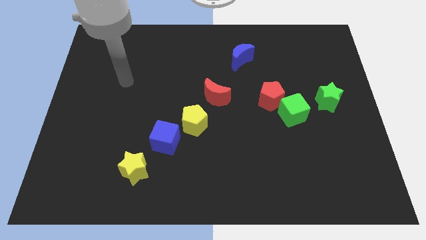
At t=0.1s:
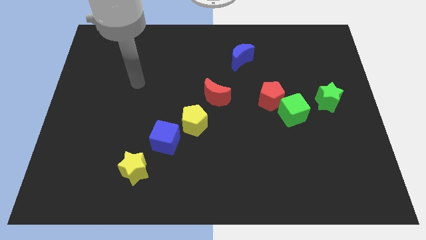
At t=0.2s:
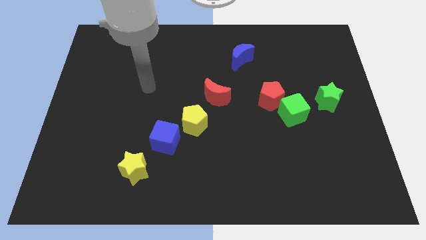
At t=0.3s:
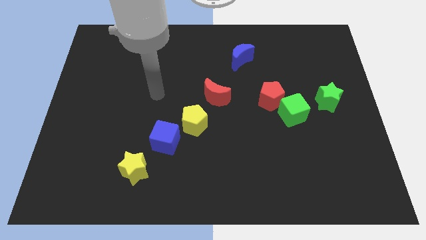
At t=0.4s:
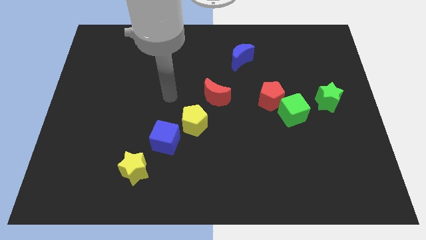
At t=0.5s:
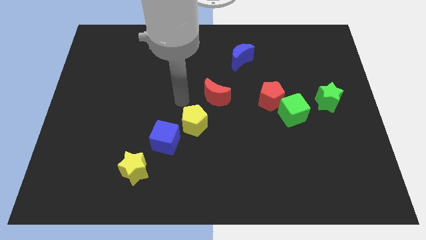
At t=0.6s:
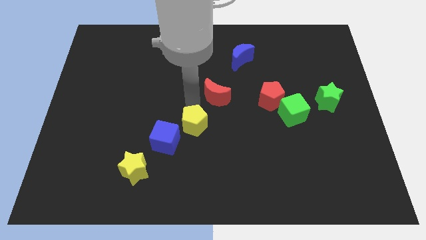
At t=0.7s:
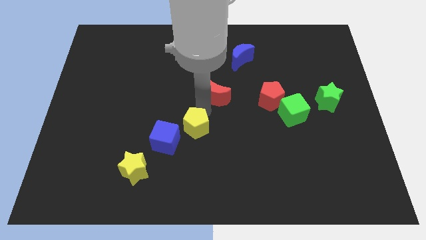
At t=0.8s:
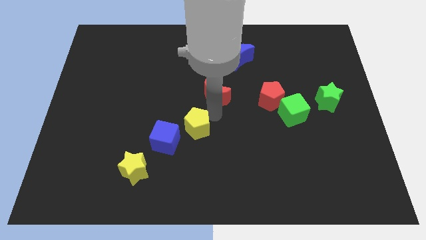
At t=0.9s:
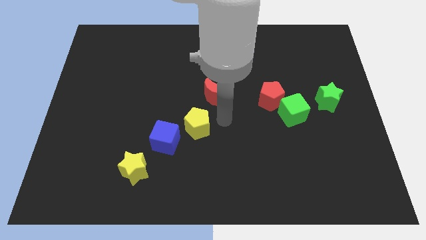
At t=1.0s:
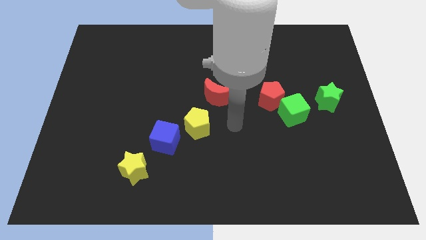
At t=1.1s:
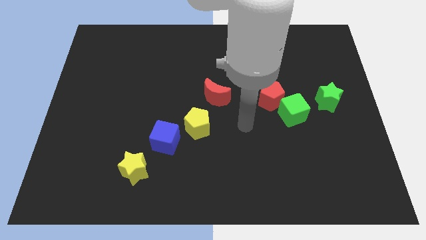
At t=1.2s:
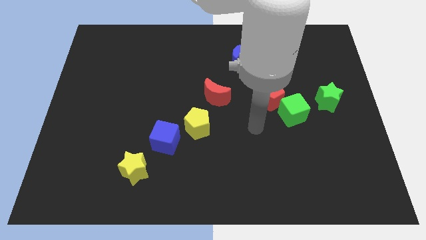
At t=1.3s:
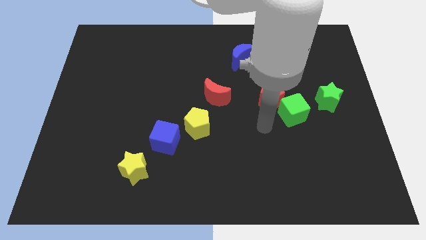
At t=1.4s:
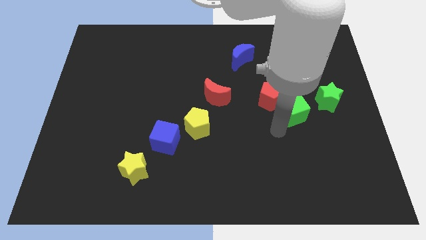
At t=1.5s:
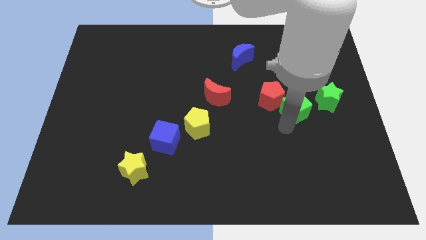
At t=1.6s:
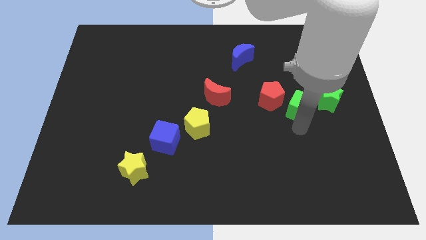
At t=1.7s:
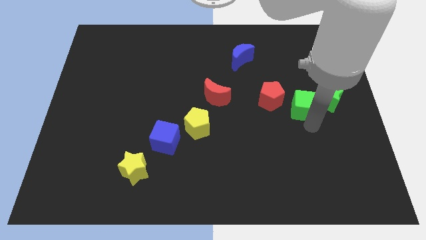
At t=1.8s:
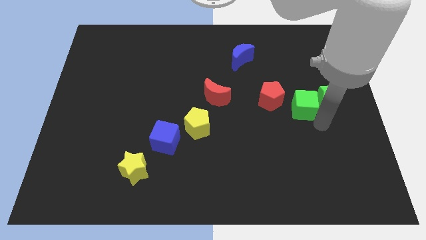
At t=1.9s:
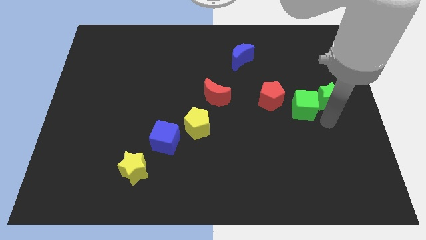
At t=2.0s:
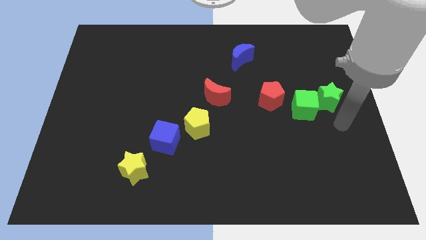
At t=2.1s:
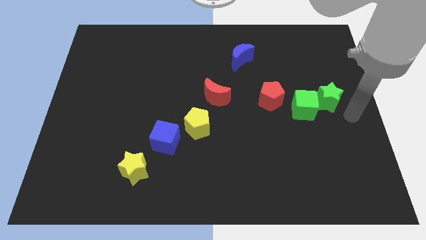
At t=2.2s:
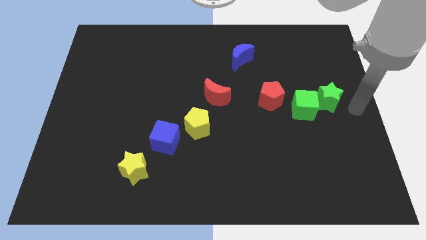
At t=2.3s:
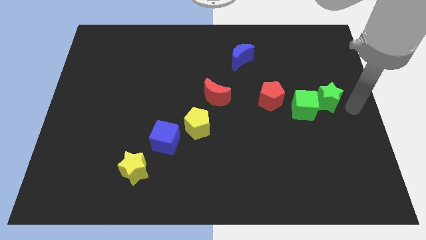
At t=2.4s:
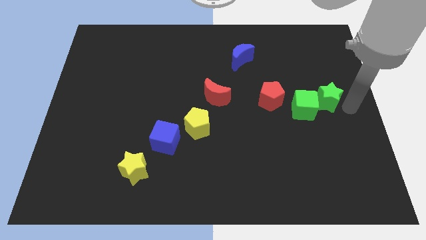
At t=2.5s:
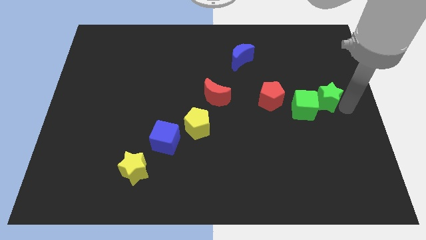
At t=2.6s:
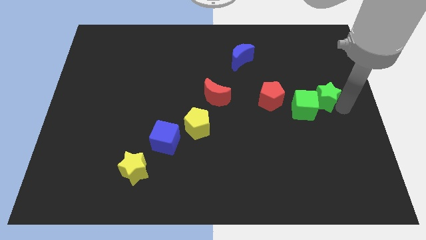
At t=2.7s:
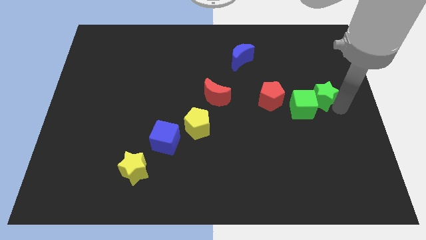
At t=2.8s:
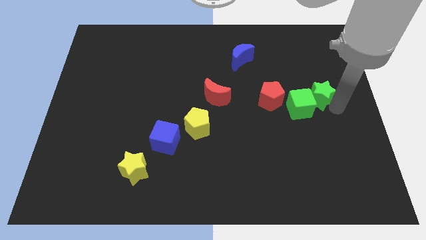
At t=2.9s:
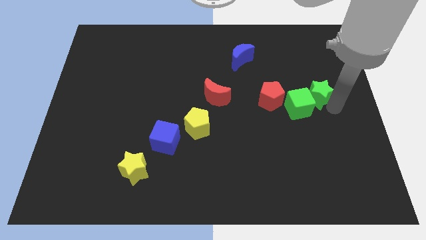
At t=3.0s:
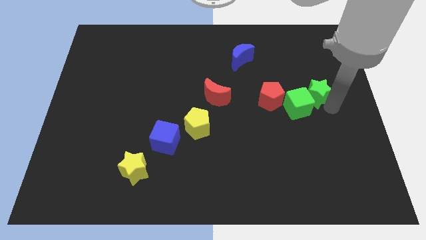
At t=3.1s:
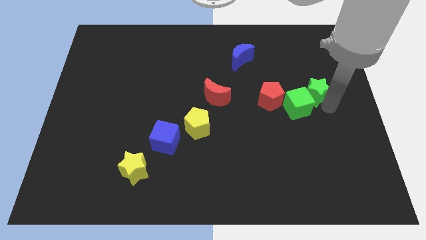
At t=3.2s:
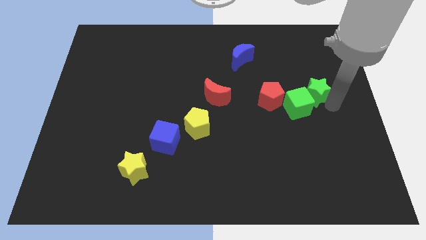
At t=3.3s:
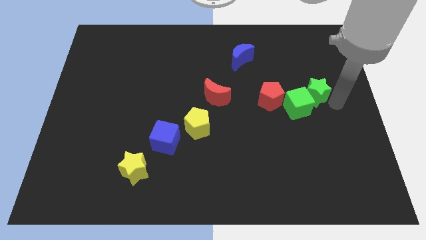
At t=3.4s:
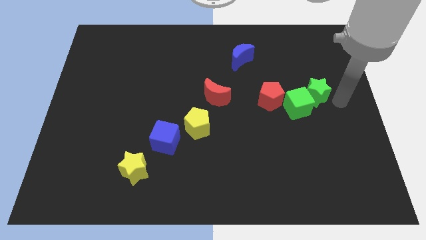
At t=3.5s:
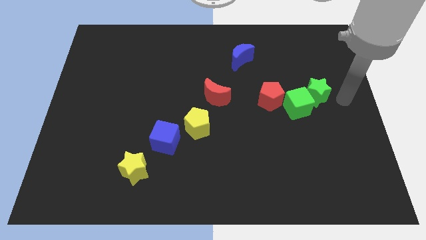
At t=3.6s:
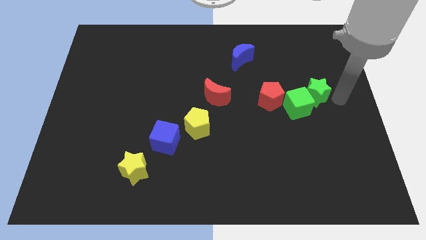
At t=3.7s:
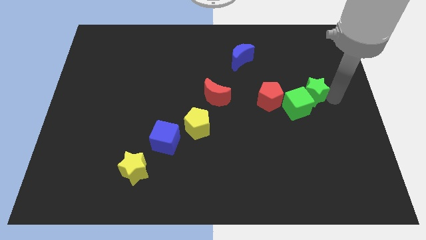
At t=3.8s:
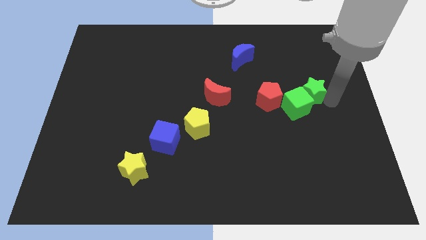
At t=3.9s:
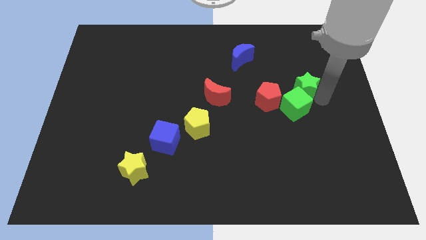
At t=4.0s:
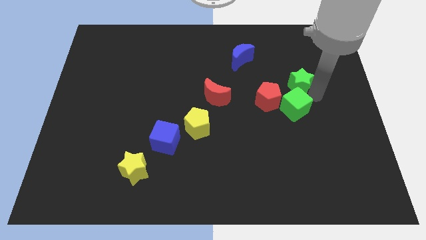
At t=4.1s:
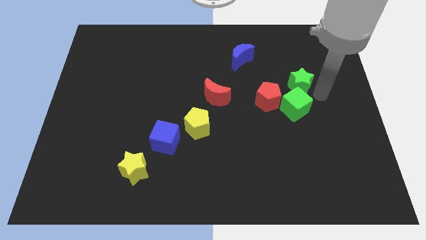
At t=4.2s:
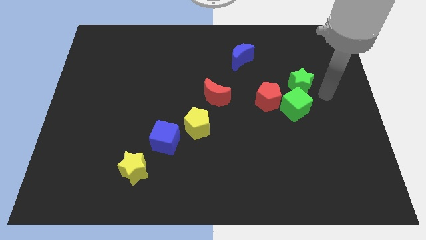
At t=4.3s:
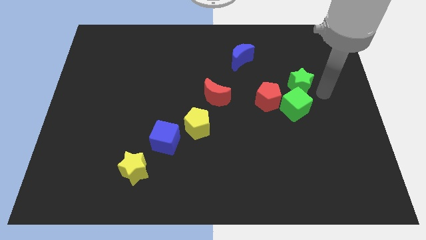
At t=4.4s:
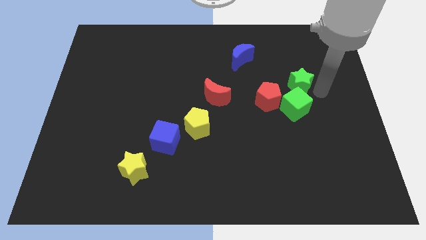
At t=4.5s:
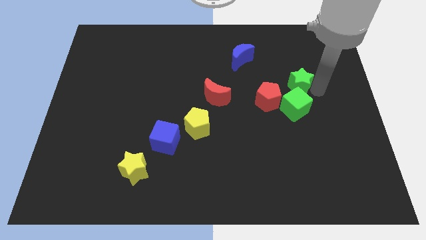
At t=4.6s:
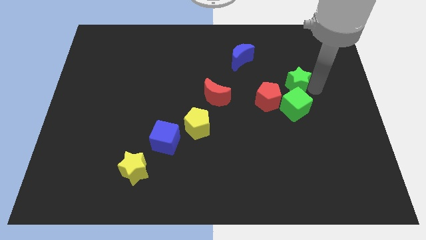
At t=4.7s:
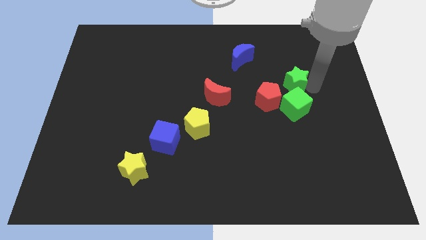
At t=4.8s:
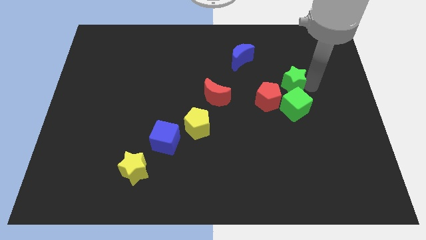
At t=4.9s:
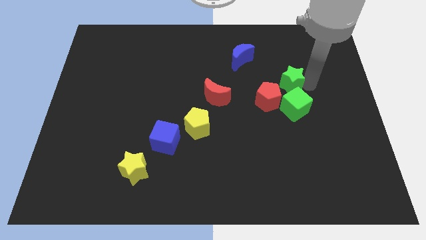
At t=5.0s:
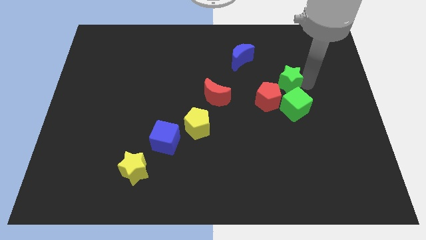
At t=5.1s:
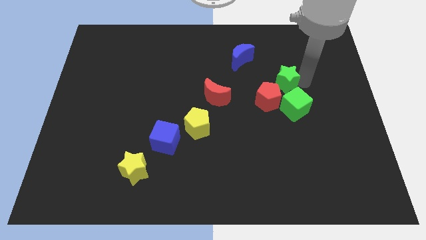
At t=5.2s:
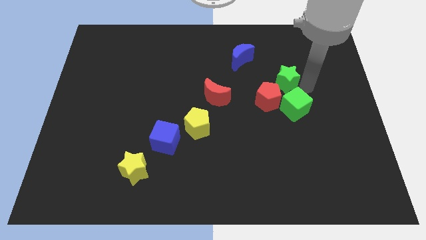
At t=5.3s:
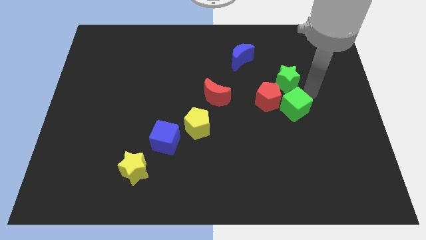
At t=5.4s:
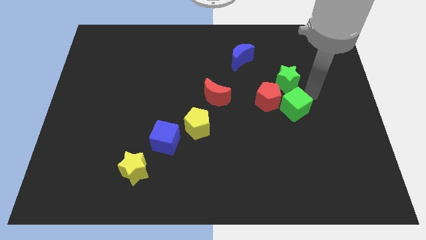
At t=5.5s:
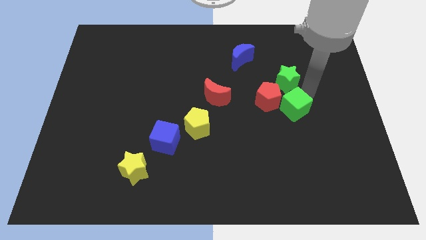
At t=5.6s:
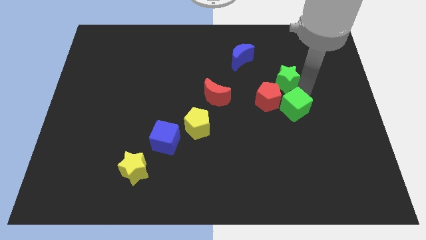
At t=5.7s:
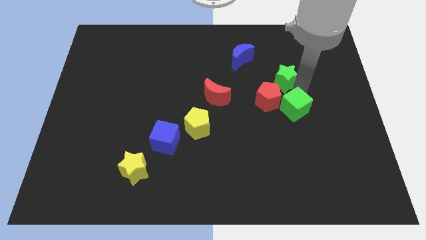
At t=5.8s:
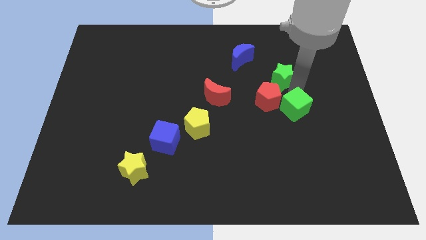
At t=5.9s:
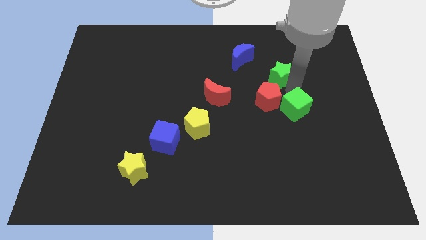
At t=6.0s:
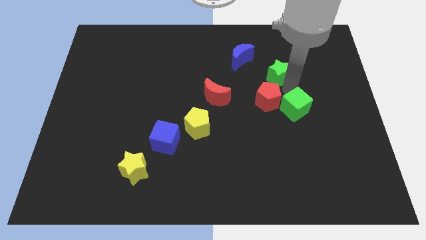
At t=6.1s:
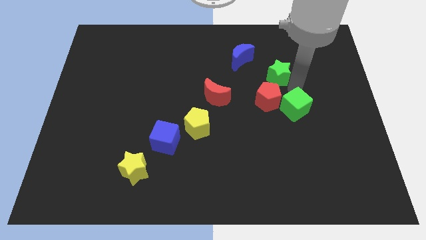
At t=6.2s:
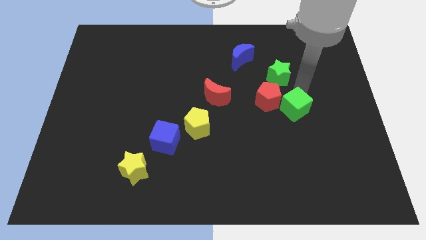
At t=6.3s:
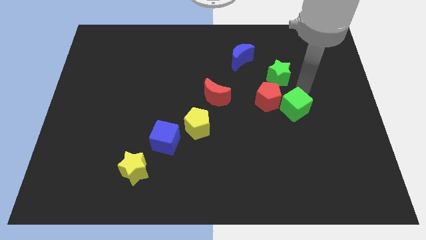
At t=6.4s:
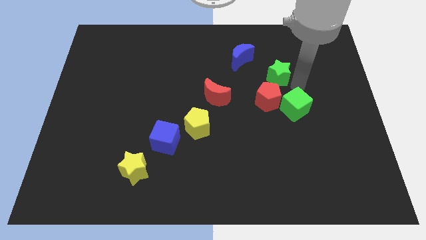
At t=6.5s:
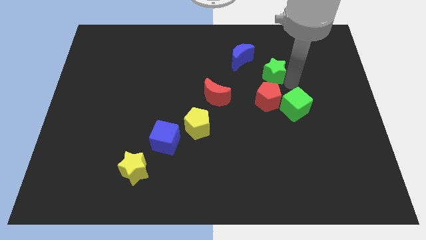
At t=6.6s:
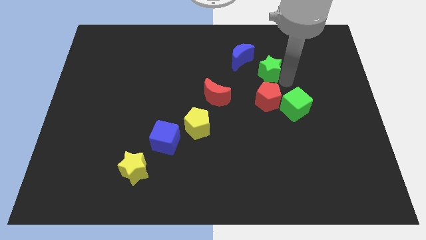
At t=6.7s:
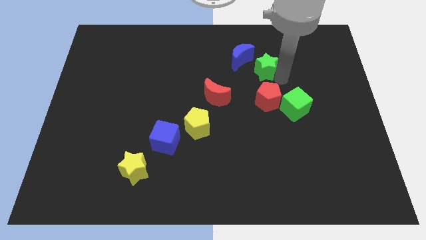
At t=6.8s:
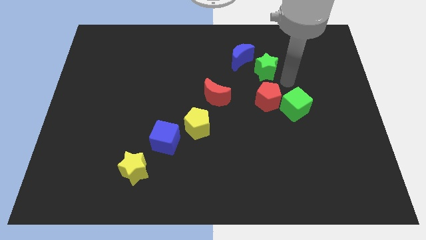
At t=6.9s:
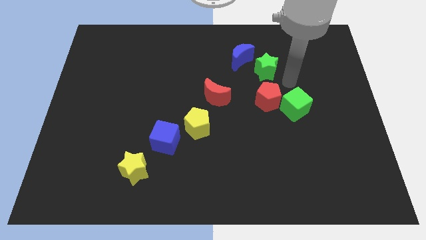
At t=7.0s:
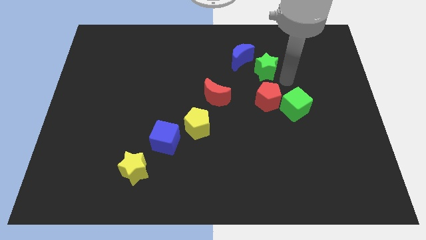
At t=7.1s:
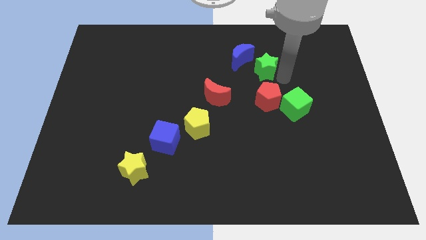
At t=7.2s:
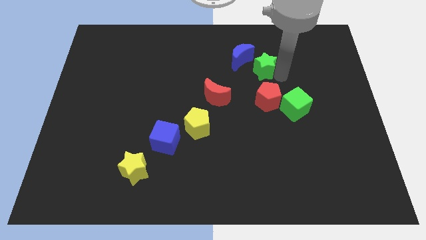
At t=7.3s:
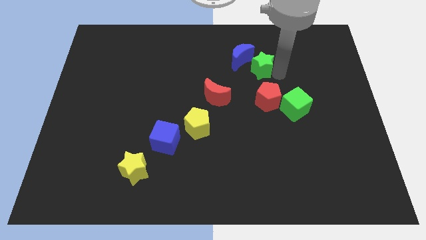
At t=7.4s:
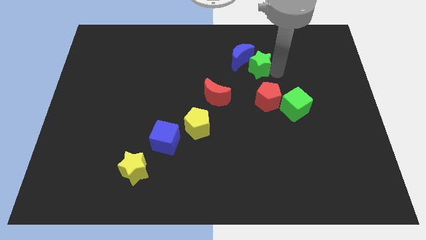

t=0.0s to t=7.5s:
move the green star next to the blue moon

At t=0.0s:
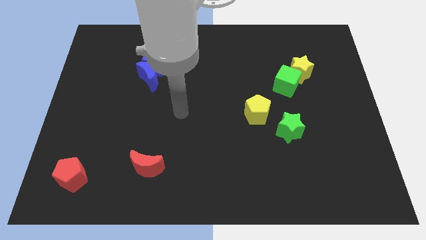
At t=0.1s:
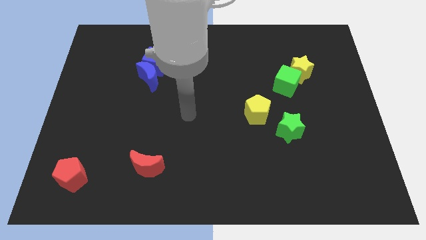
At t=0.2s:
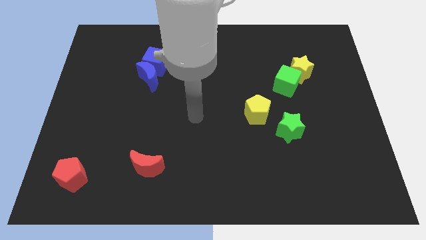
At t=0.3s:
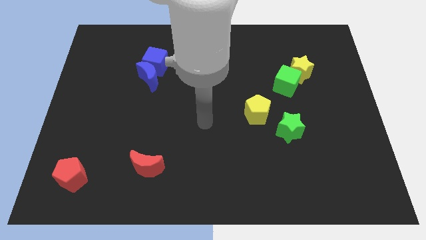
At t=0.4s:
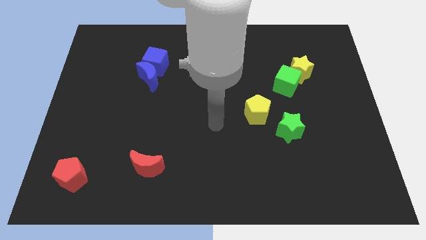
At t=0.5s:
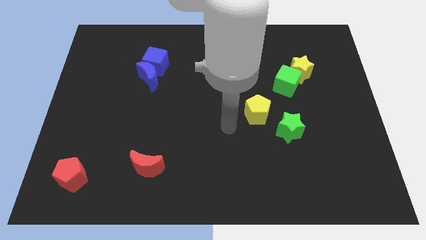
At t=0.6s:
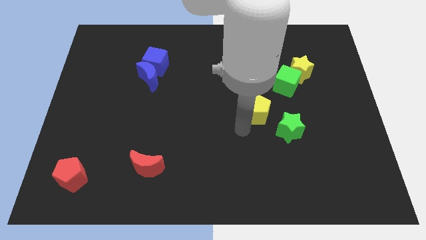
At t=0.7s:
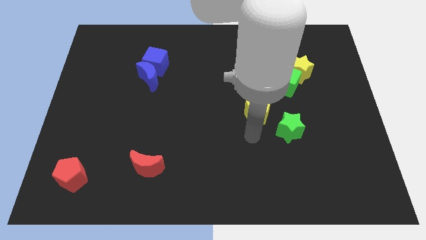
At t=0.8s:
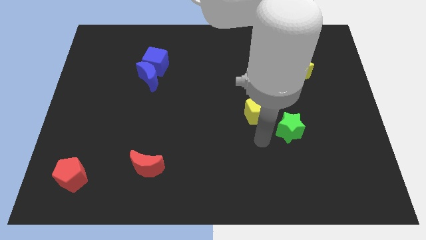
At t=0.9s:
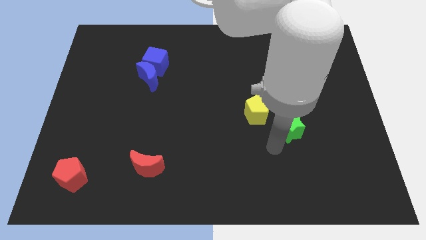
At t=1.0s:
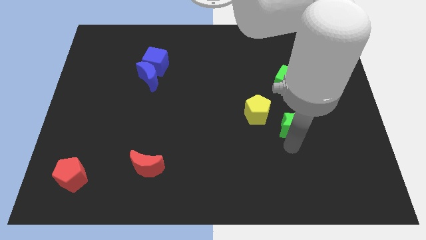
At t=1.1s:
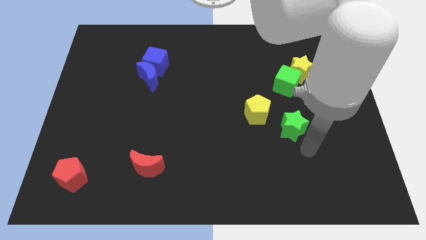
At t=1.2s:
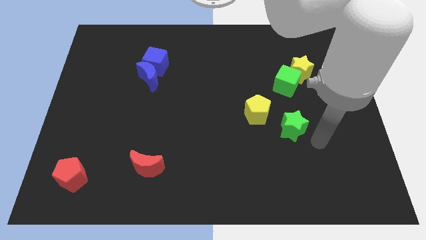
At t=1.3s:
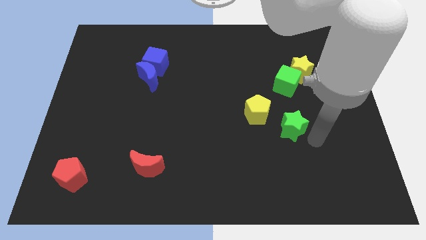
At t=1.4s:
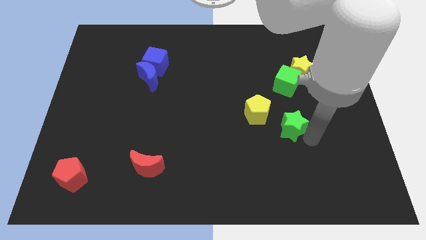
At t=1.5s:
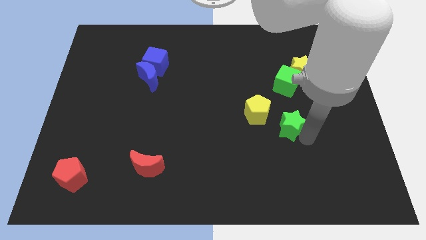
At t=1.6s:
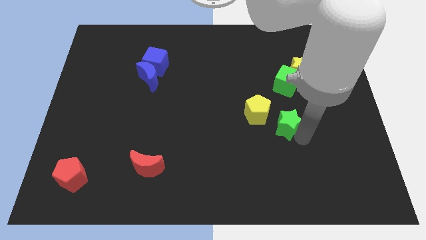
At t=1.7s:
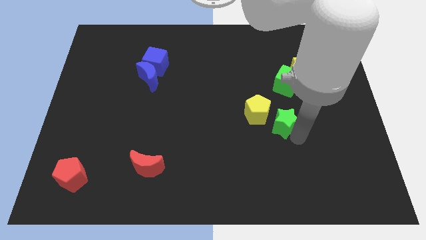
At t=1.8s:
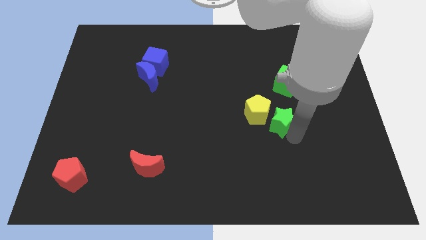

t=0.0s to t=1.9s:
put the green star next to the yellow pentagon
